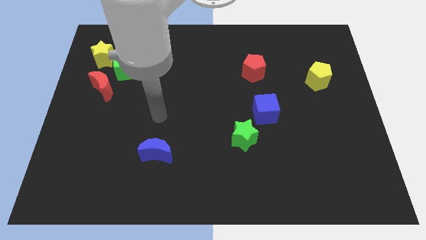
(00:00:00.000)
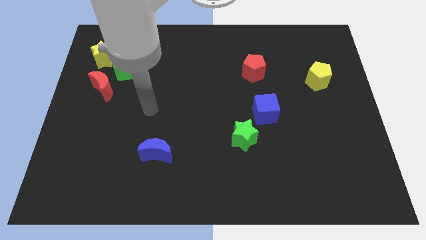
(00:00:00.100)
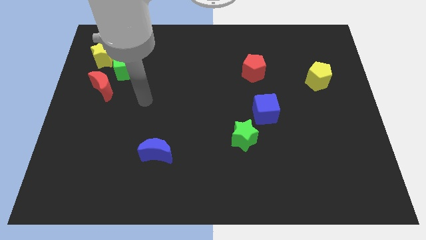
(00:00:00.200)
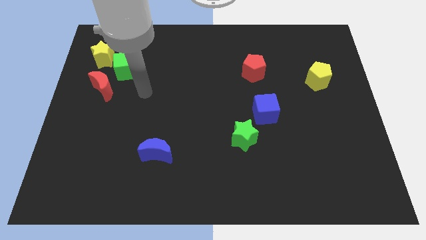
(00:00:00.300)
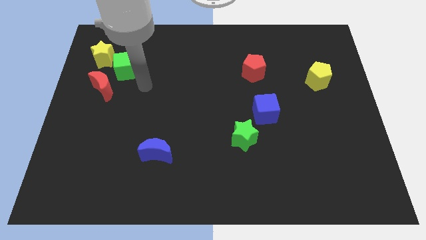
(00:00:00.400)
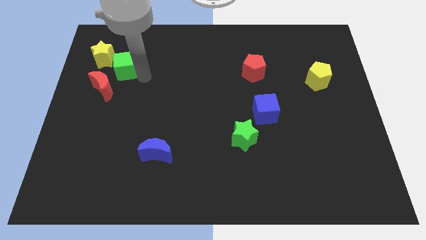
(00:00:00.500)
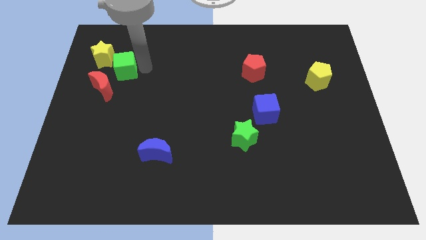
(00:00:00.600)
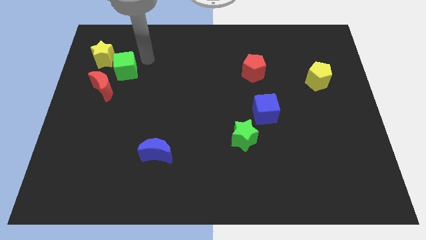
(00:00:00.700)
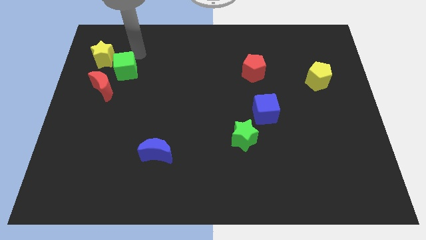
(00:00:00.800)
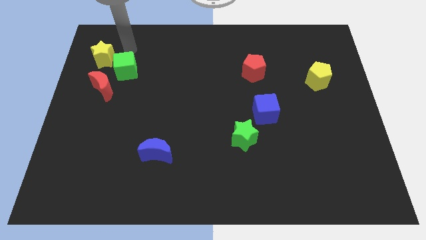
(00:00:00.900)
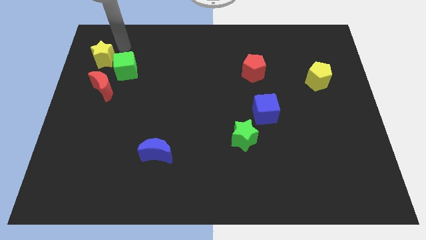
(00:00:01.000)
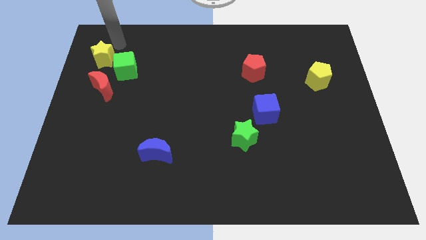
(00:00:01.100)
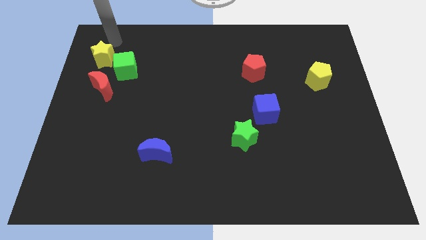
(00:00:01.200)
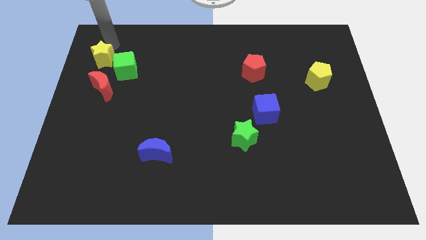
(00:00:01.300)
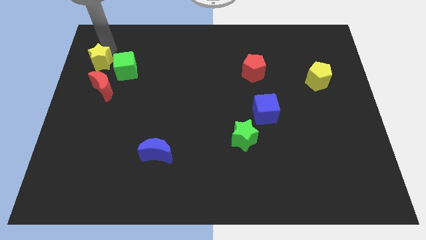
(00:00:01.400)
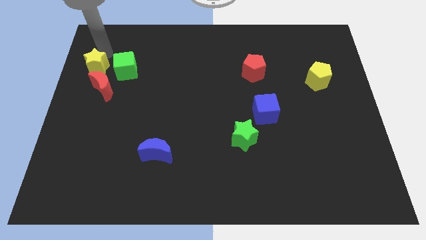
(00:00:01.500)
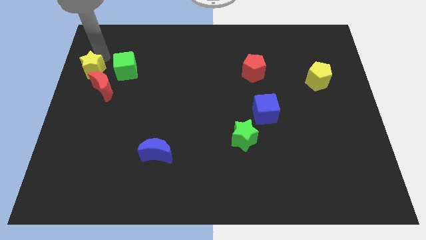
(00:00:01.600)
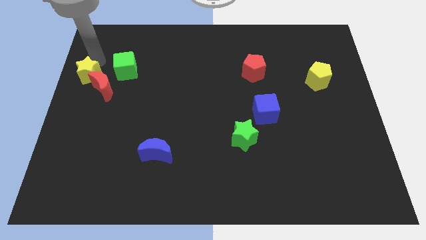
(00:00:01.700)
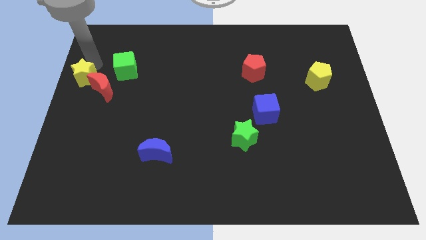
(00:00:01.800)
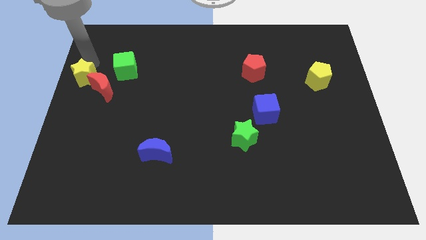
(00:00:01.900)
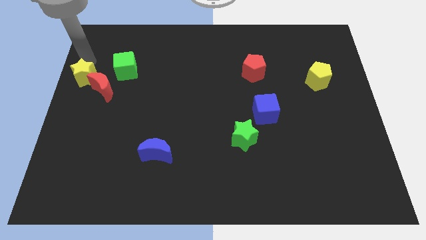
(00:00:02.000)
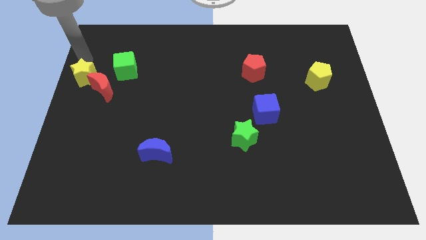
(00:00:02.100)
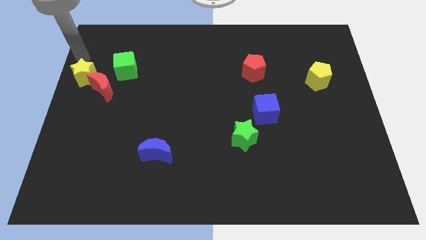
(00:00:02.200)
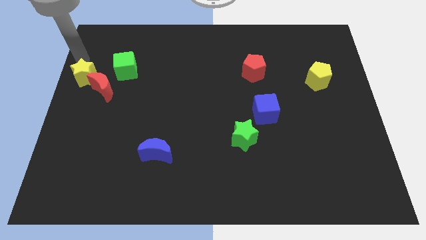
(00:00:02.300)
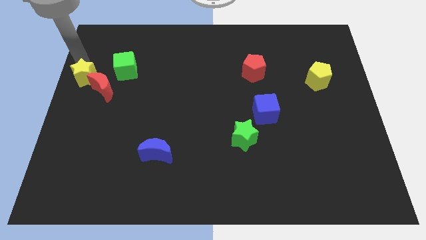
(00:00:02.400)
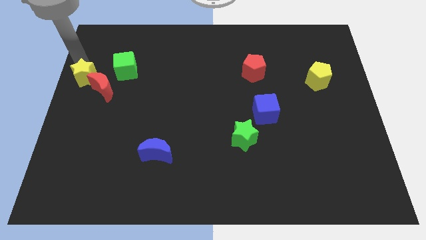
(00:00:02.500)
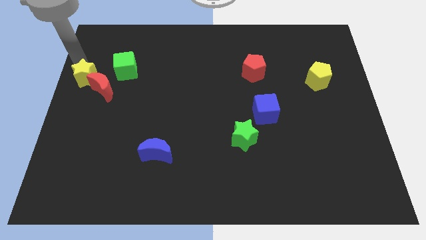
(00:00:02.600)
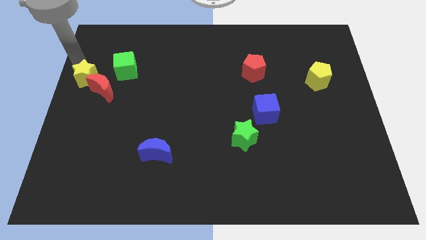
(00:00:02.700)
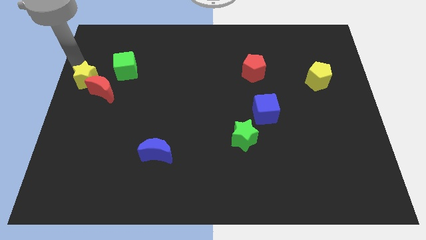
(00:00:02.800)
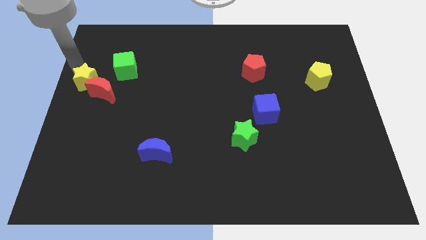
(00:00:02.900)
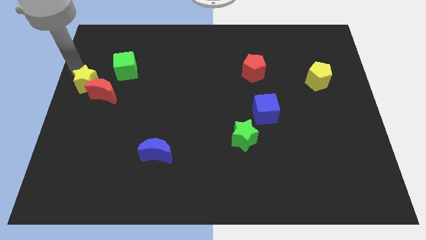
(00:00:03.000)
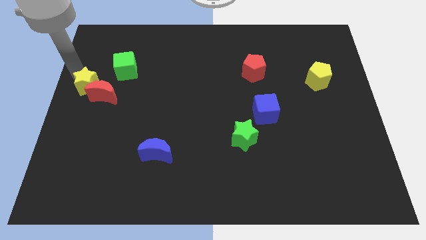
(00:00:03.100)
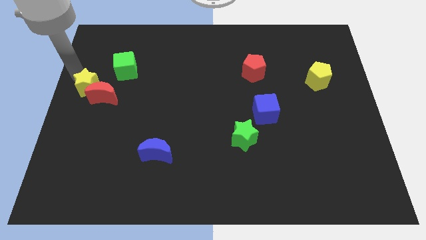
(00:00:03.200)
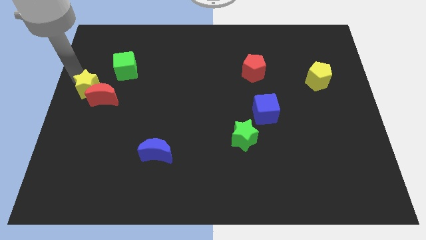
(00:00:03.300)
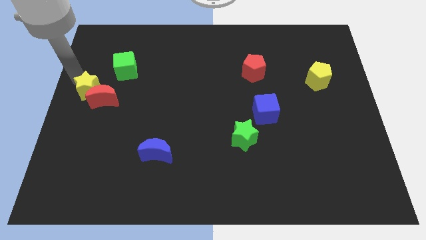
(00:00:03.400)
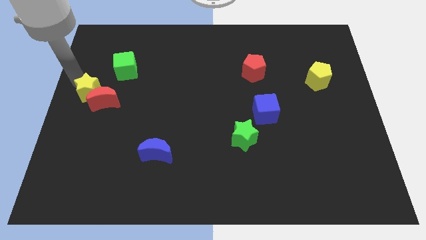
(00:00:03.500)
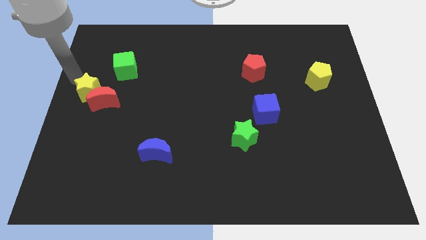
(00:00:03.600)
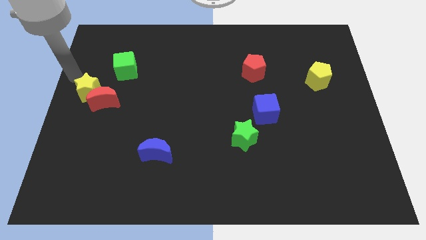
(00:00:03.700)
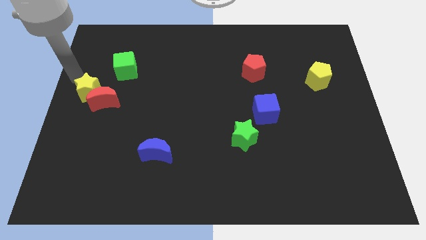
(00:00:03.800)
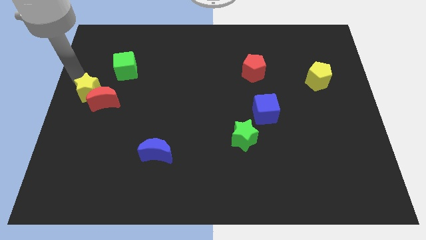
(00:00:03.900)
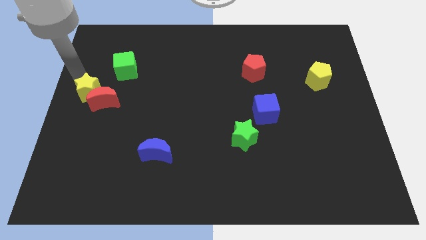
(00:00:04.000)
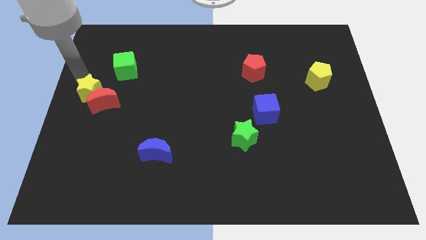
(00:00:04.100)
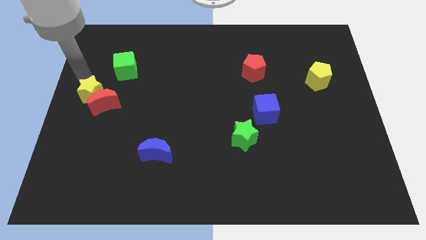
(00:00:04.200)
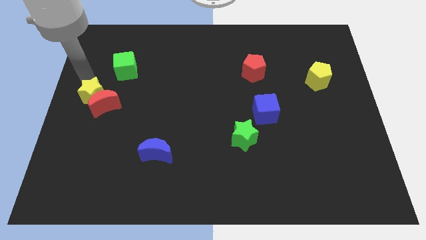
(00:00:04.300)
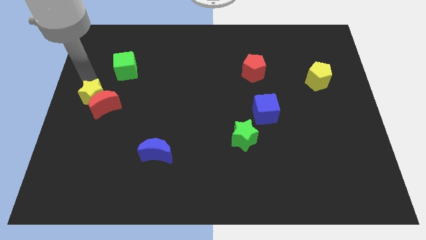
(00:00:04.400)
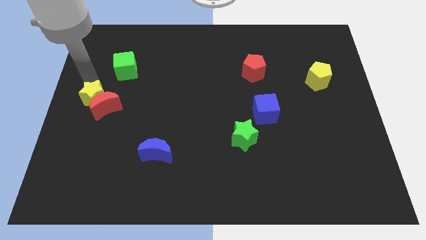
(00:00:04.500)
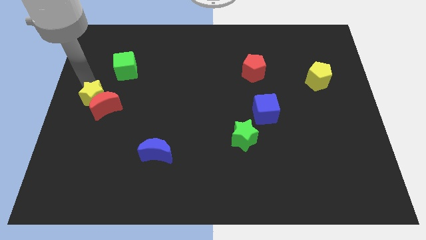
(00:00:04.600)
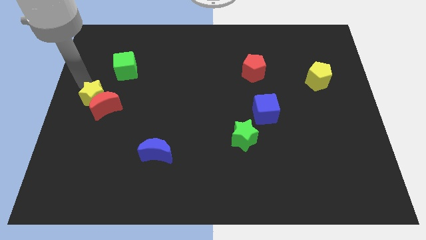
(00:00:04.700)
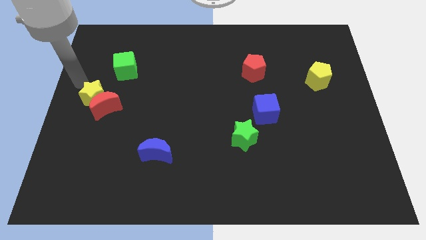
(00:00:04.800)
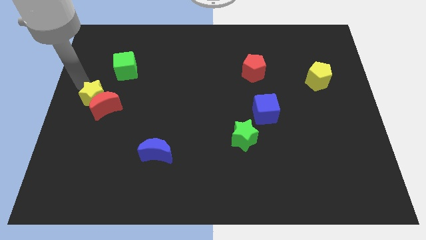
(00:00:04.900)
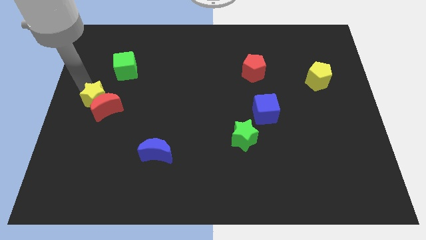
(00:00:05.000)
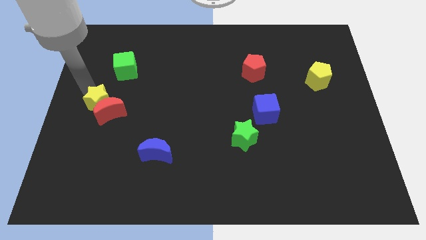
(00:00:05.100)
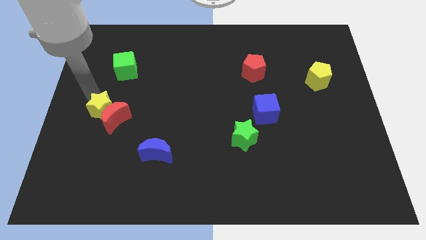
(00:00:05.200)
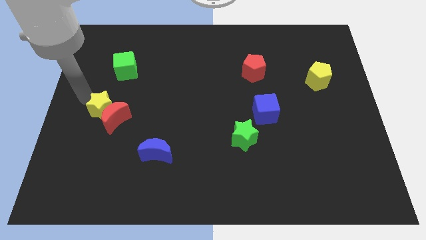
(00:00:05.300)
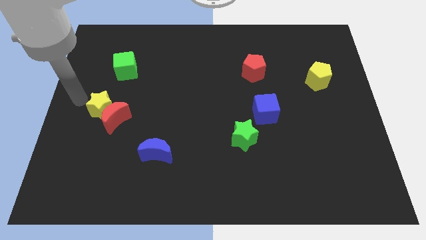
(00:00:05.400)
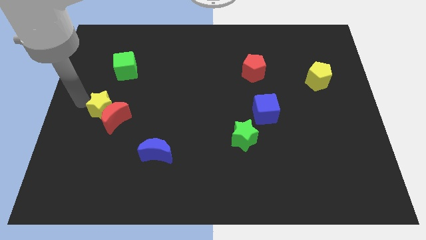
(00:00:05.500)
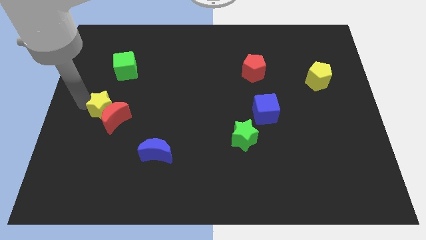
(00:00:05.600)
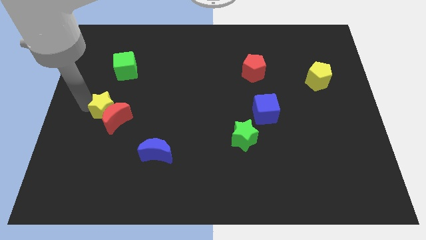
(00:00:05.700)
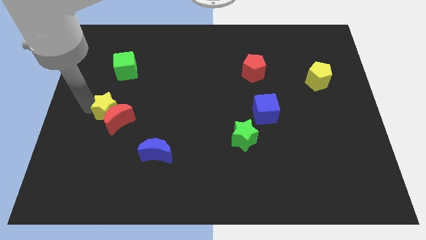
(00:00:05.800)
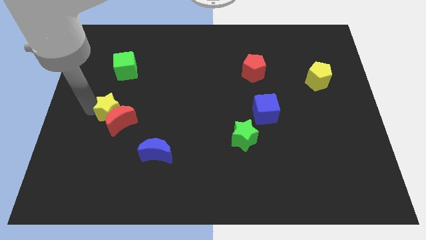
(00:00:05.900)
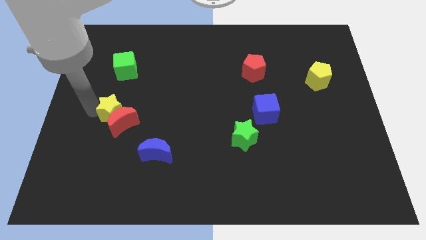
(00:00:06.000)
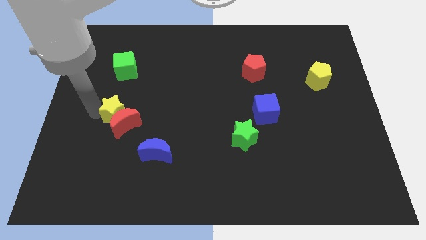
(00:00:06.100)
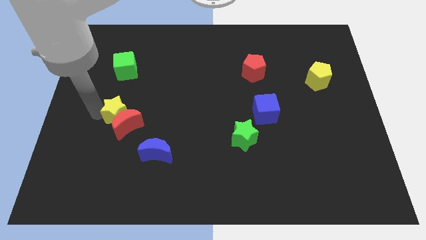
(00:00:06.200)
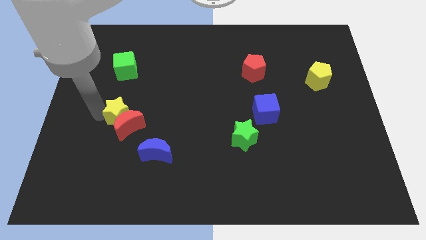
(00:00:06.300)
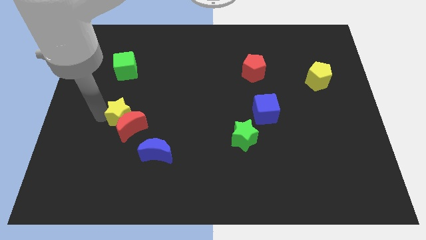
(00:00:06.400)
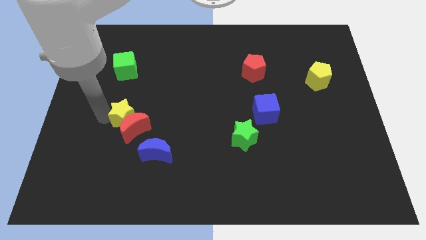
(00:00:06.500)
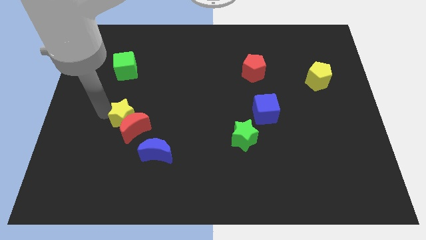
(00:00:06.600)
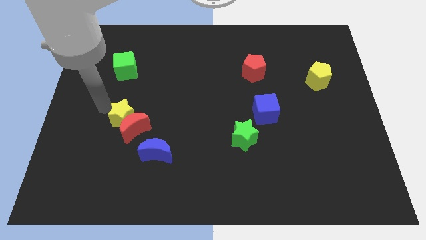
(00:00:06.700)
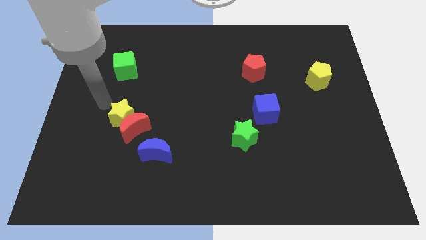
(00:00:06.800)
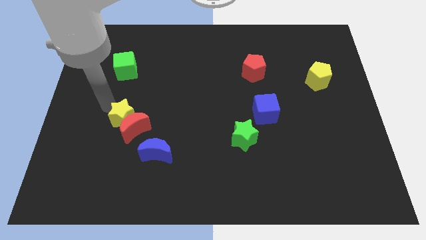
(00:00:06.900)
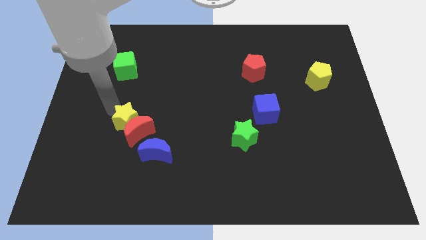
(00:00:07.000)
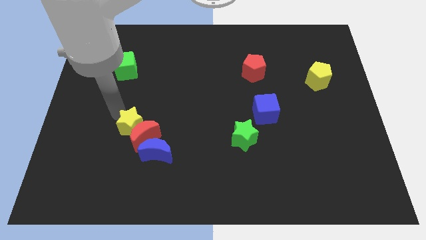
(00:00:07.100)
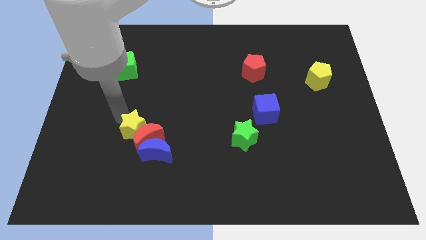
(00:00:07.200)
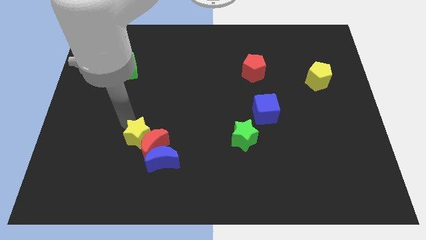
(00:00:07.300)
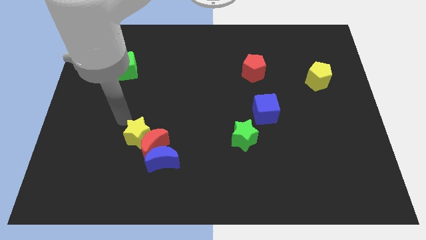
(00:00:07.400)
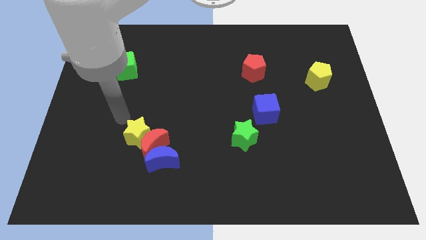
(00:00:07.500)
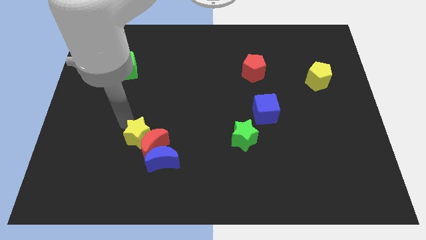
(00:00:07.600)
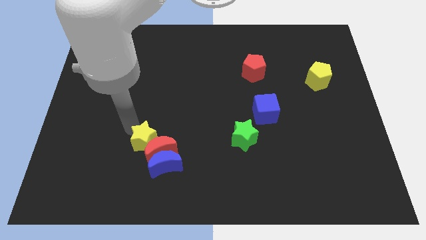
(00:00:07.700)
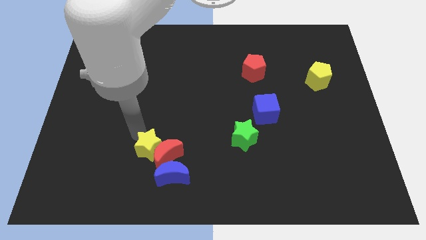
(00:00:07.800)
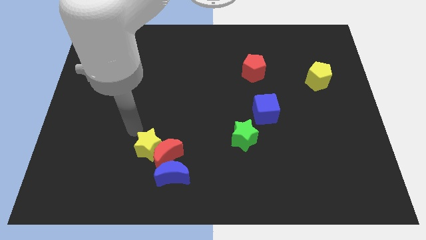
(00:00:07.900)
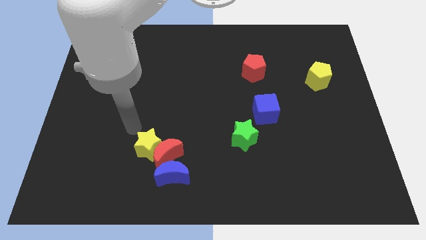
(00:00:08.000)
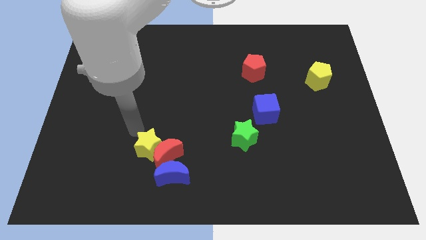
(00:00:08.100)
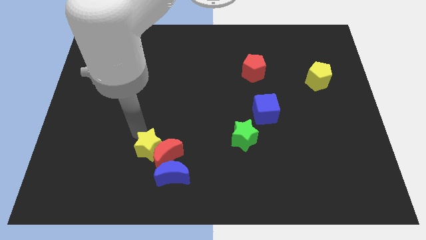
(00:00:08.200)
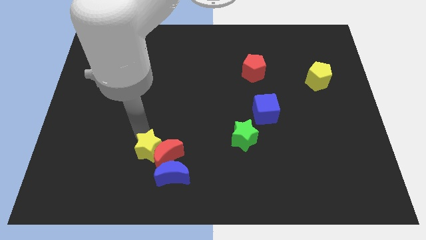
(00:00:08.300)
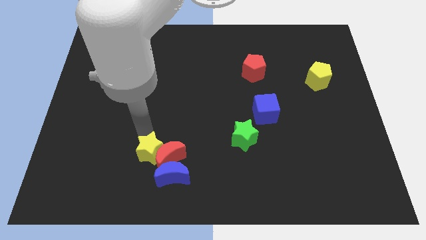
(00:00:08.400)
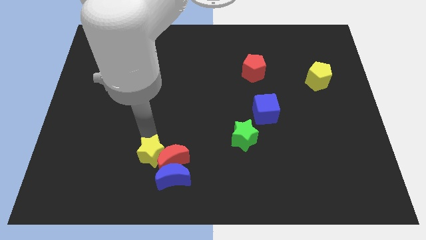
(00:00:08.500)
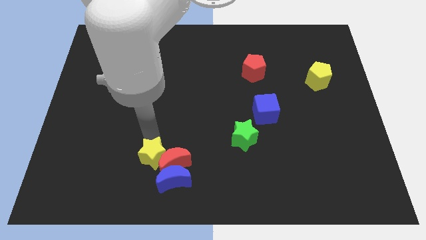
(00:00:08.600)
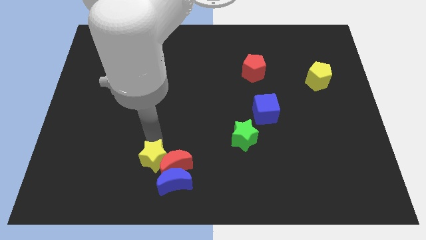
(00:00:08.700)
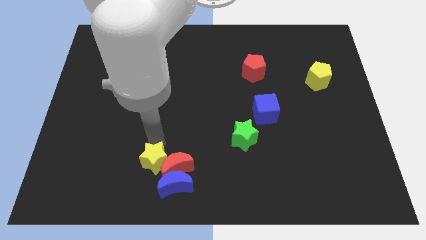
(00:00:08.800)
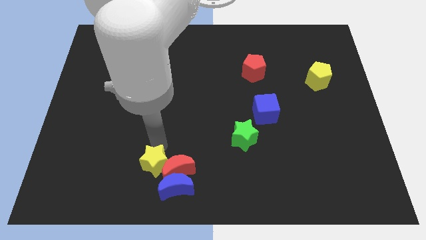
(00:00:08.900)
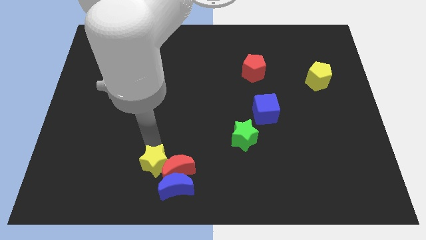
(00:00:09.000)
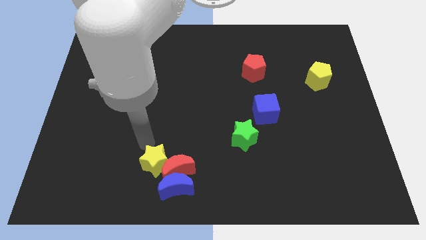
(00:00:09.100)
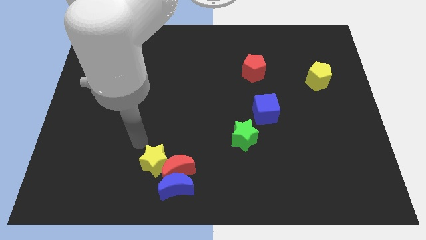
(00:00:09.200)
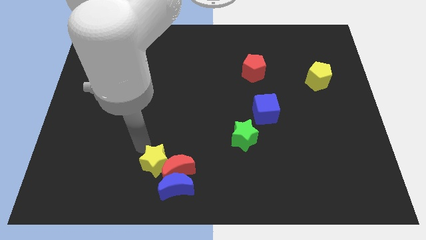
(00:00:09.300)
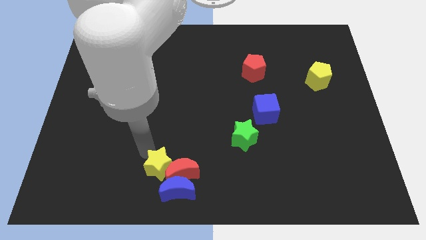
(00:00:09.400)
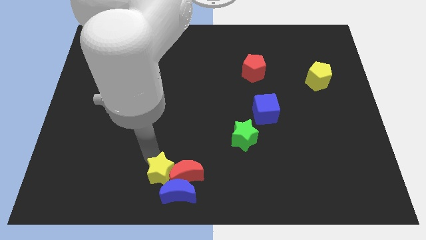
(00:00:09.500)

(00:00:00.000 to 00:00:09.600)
move the yellow star next to the blue moon
